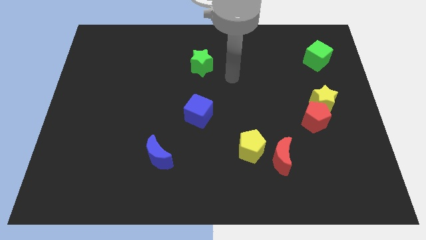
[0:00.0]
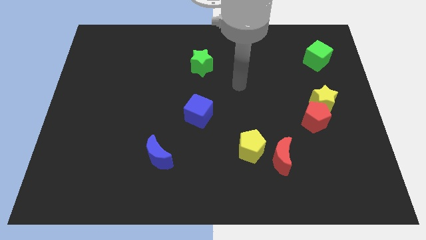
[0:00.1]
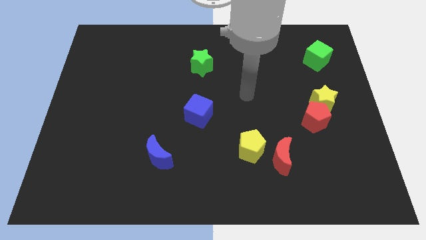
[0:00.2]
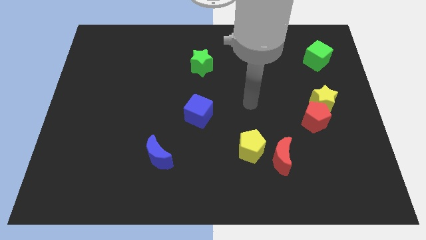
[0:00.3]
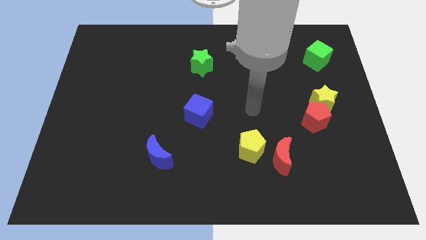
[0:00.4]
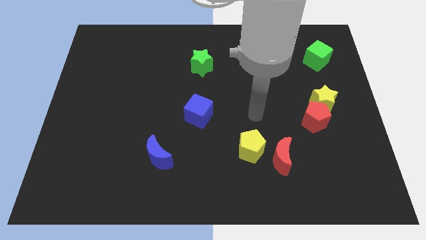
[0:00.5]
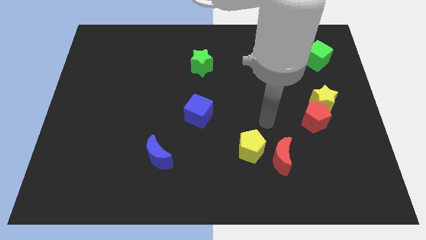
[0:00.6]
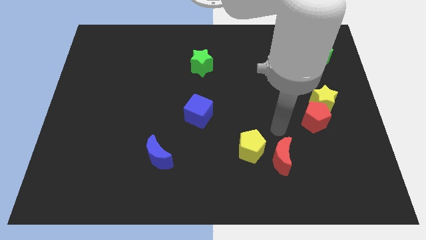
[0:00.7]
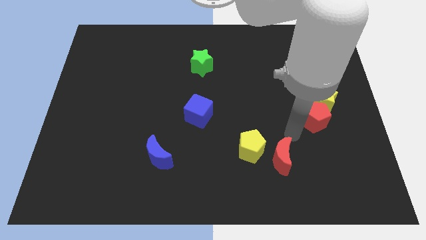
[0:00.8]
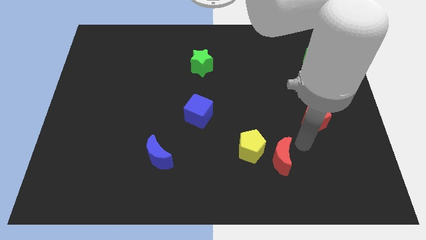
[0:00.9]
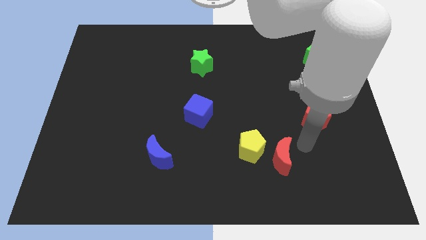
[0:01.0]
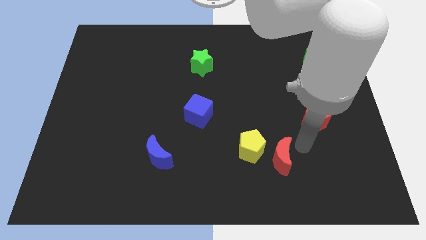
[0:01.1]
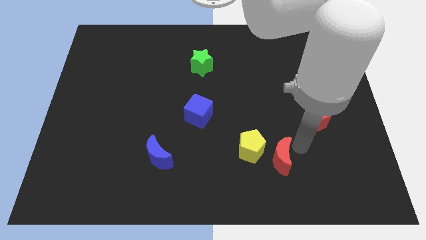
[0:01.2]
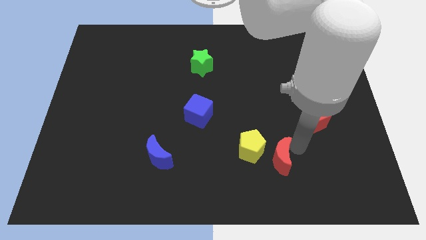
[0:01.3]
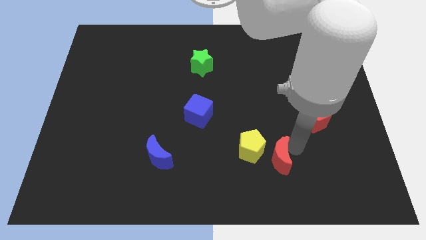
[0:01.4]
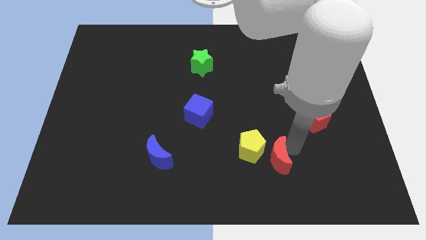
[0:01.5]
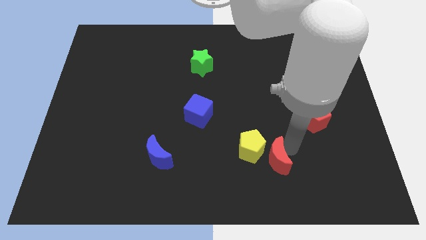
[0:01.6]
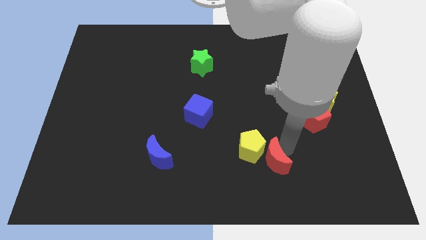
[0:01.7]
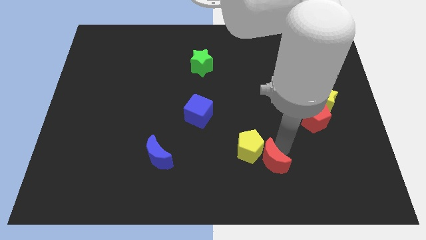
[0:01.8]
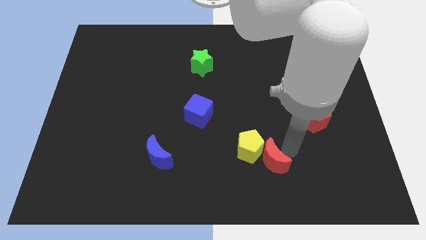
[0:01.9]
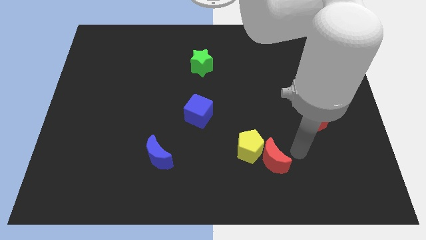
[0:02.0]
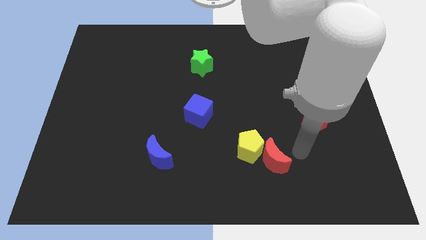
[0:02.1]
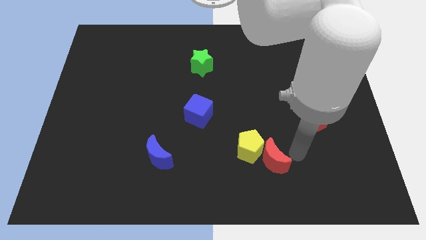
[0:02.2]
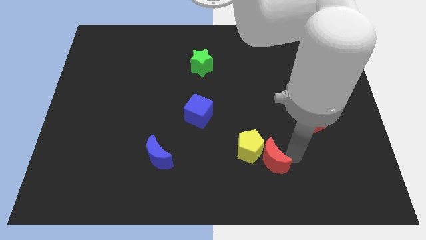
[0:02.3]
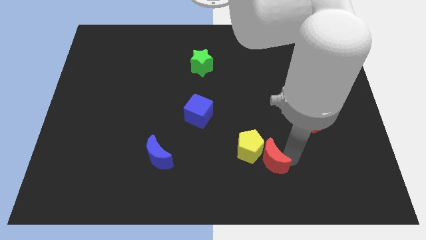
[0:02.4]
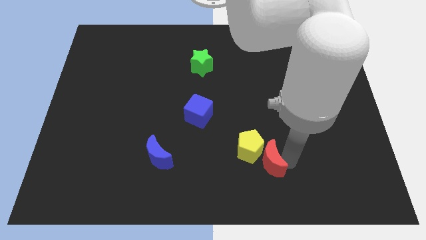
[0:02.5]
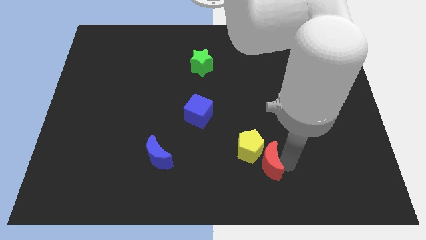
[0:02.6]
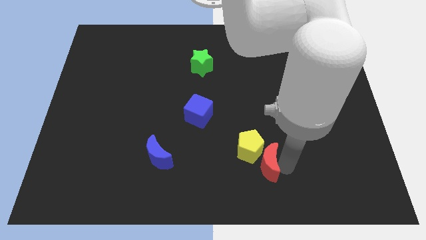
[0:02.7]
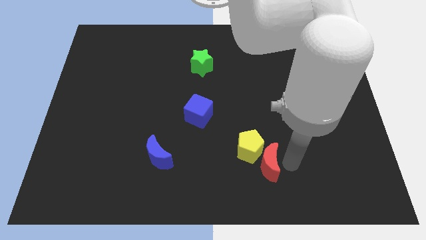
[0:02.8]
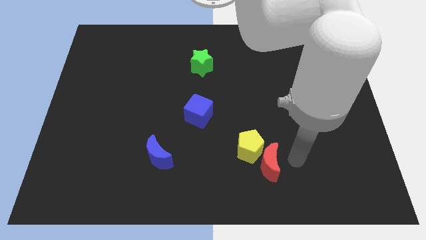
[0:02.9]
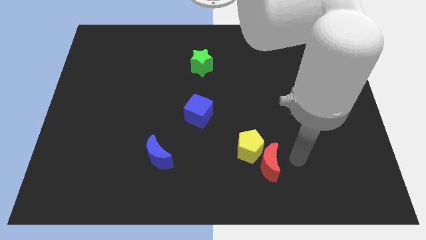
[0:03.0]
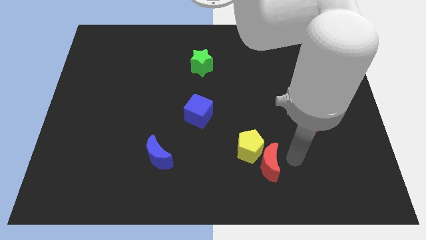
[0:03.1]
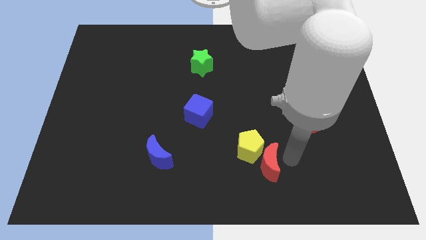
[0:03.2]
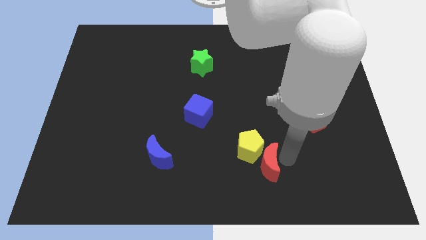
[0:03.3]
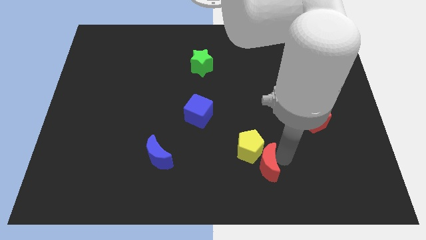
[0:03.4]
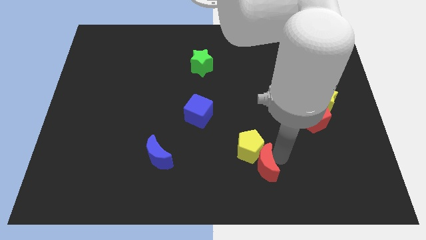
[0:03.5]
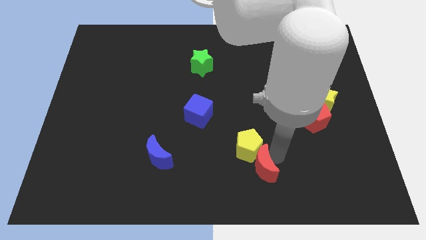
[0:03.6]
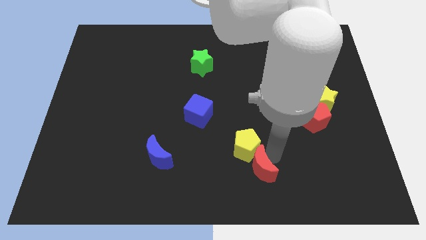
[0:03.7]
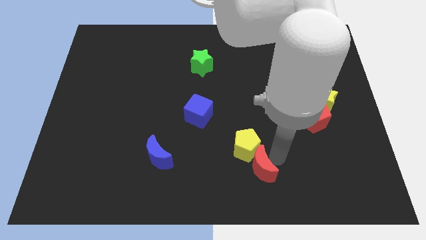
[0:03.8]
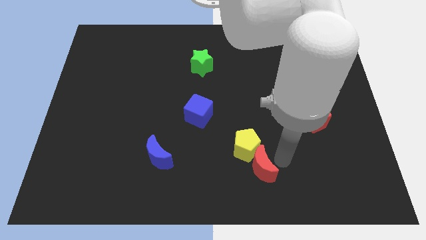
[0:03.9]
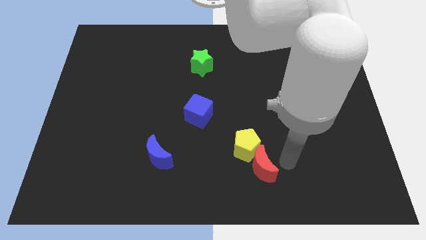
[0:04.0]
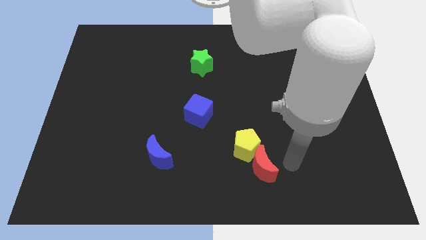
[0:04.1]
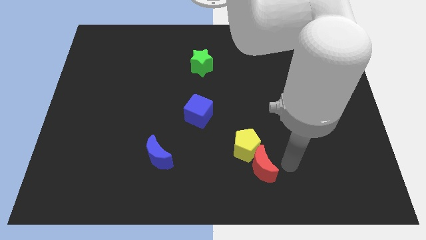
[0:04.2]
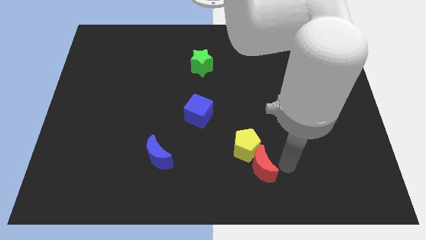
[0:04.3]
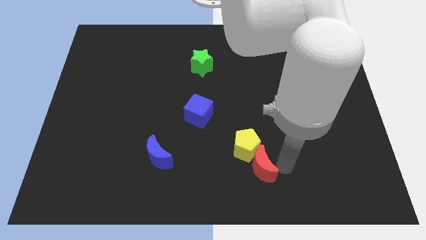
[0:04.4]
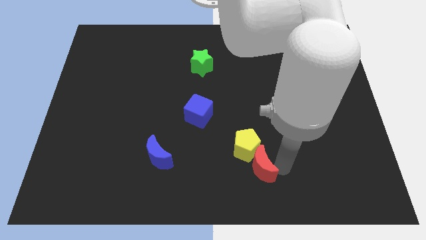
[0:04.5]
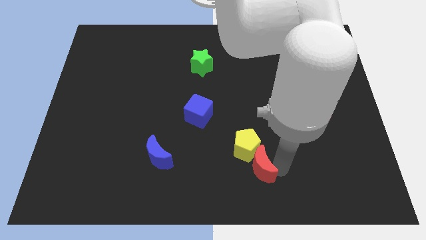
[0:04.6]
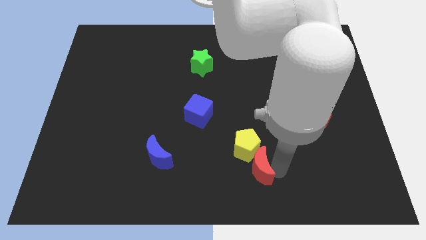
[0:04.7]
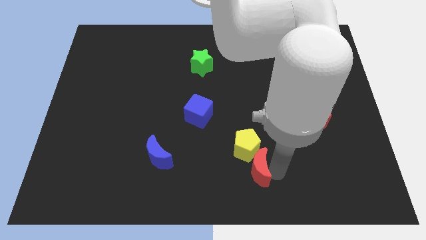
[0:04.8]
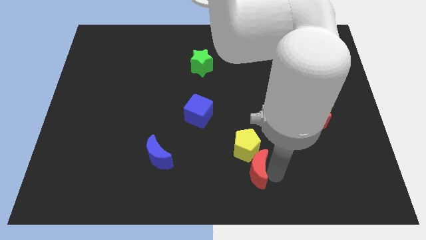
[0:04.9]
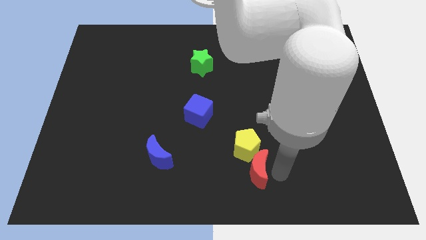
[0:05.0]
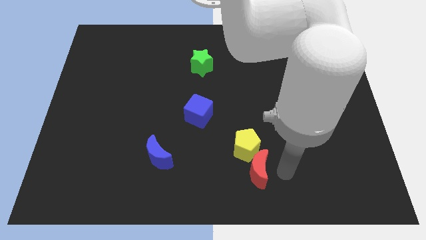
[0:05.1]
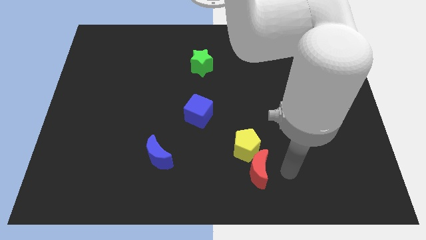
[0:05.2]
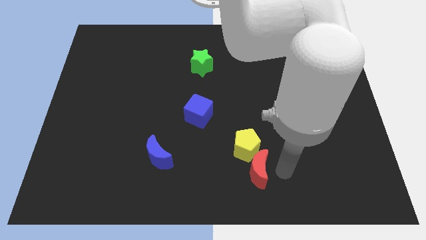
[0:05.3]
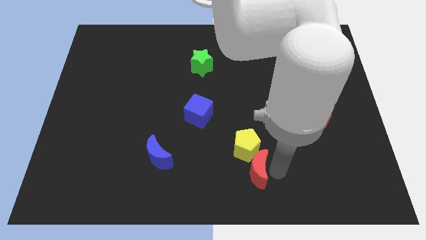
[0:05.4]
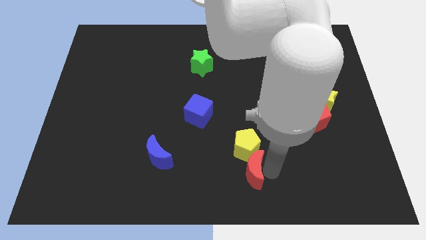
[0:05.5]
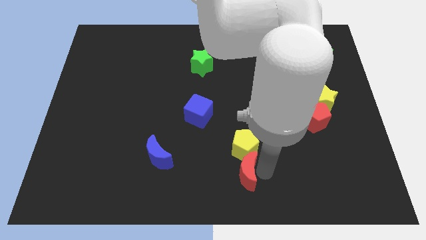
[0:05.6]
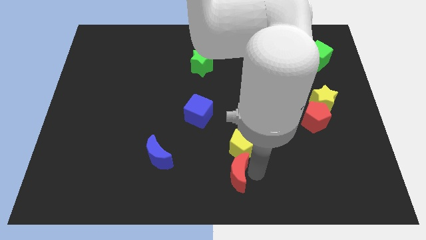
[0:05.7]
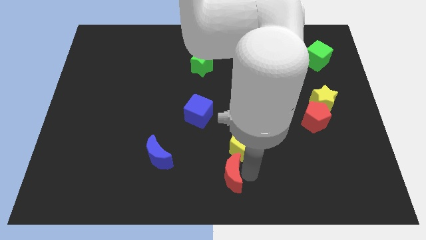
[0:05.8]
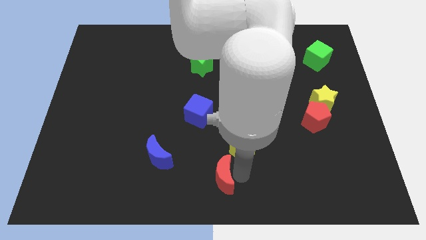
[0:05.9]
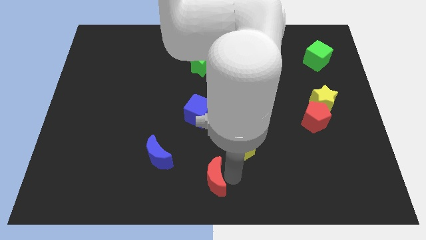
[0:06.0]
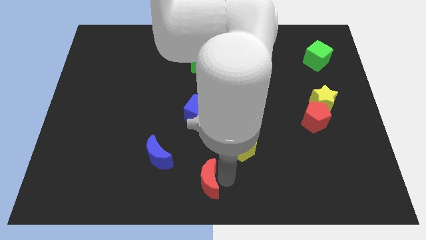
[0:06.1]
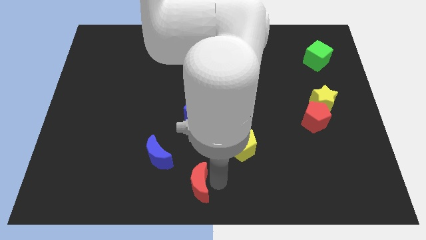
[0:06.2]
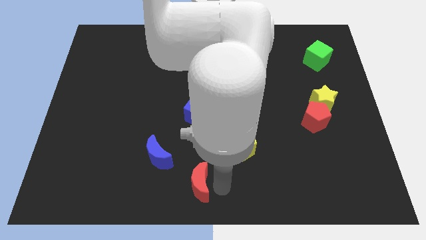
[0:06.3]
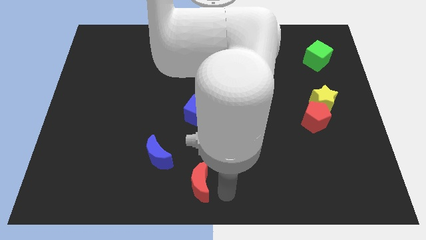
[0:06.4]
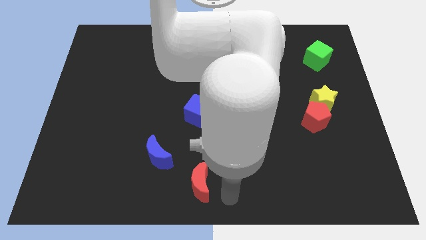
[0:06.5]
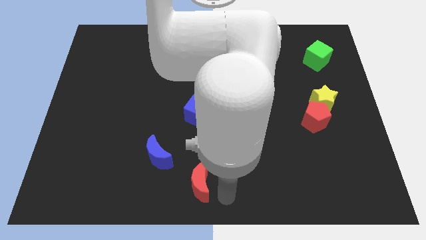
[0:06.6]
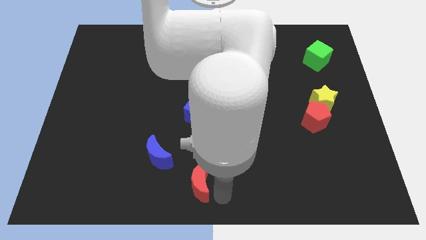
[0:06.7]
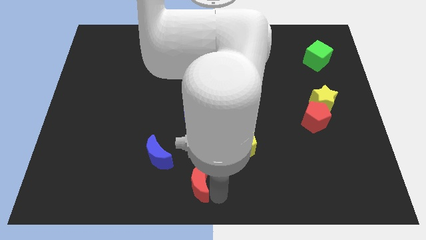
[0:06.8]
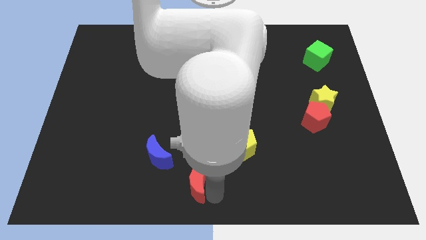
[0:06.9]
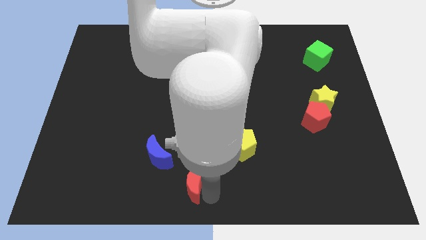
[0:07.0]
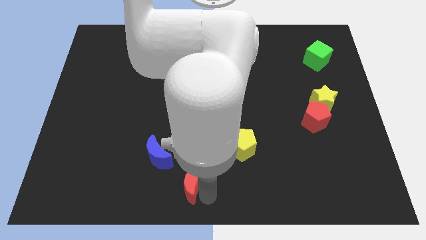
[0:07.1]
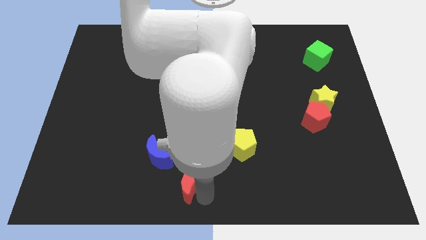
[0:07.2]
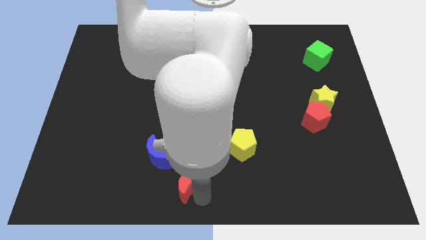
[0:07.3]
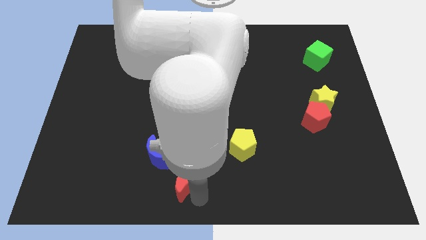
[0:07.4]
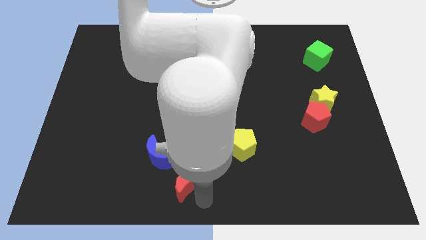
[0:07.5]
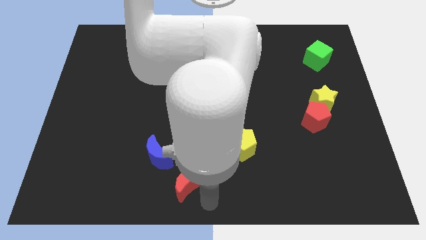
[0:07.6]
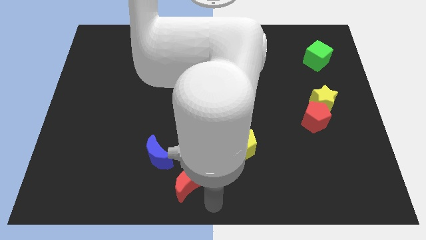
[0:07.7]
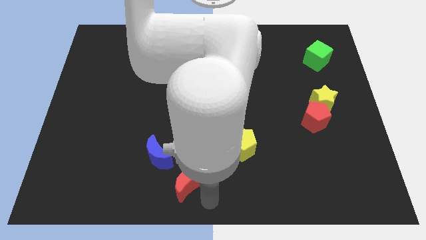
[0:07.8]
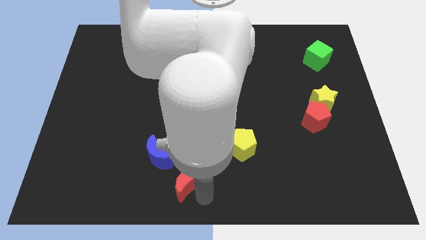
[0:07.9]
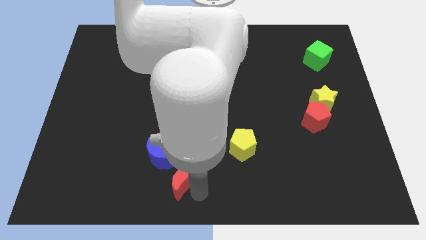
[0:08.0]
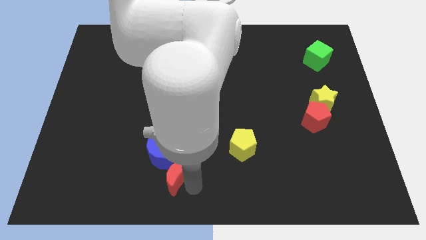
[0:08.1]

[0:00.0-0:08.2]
push the red moon left
